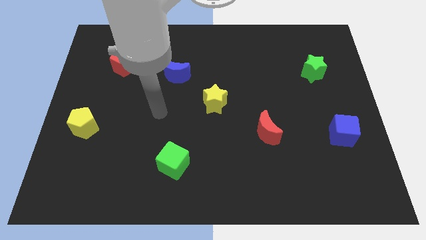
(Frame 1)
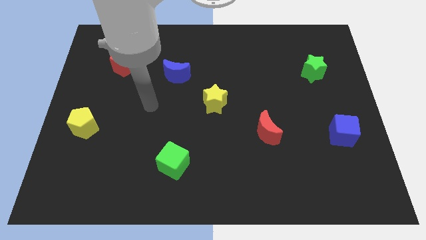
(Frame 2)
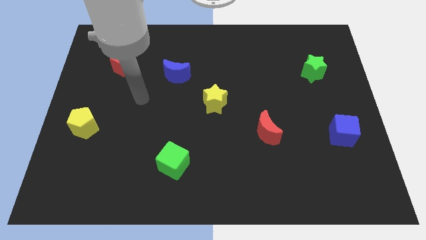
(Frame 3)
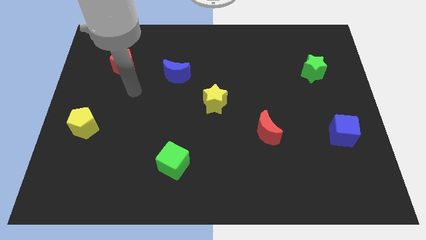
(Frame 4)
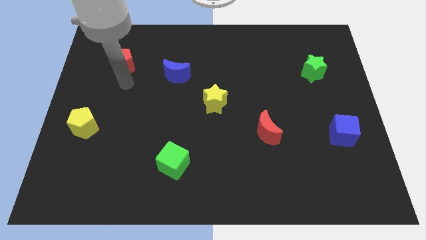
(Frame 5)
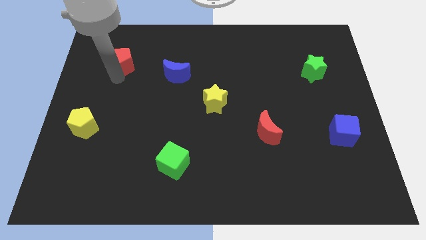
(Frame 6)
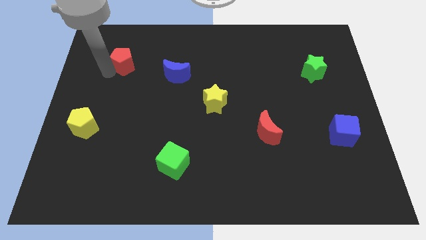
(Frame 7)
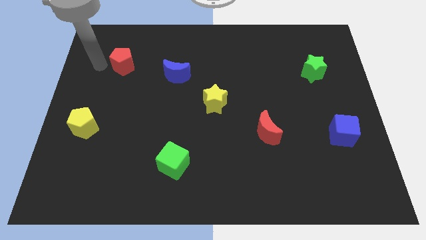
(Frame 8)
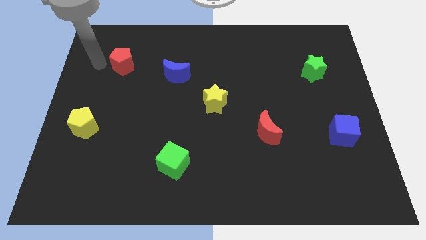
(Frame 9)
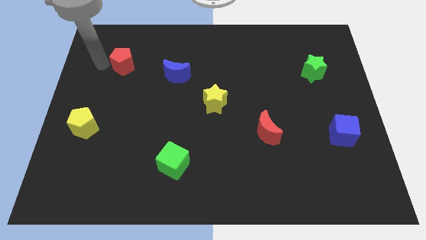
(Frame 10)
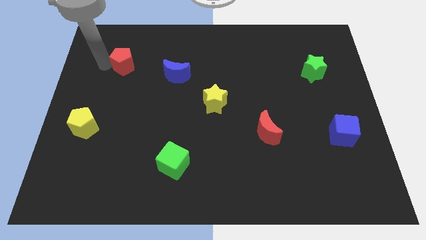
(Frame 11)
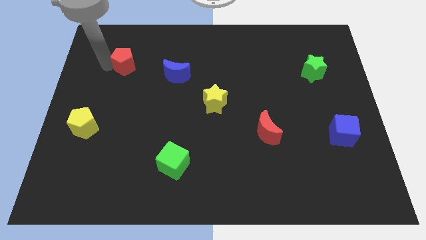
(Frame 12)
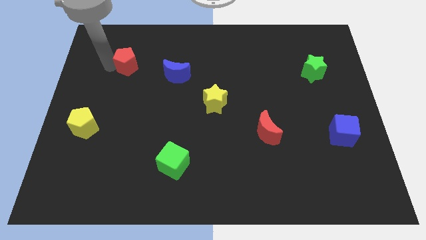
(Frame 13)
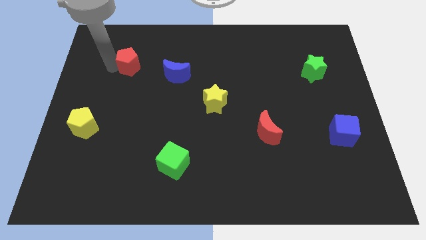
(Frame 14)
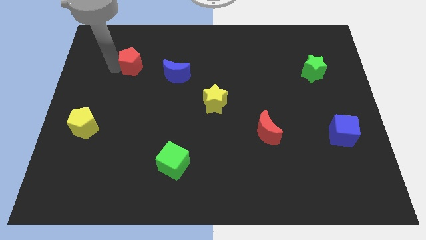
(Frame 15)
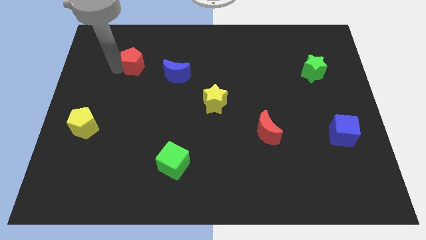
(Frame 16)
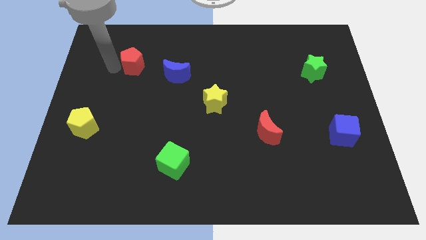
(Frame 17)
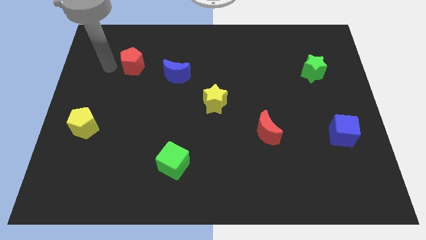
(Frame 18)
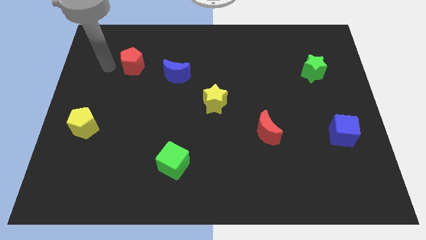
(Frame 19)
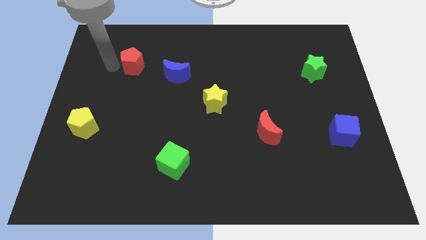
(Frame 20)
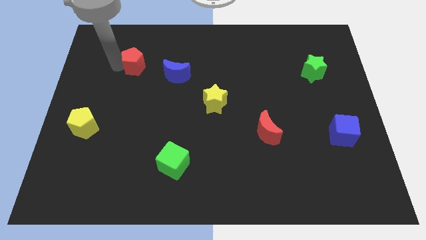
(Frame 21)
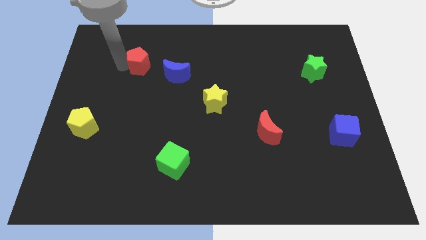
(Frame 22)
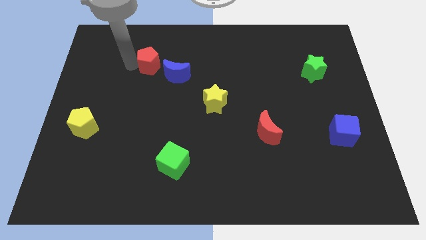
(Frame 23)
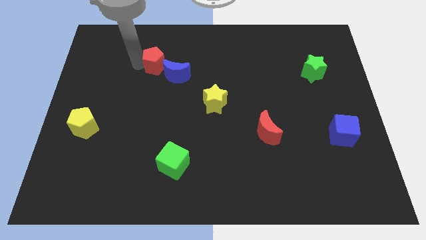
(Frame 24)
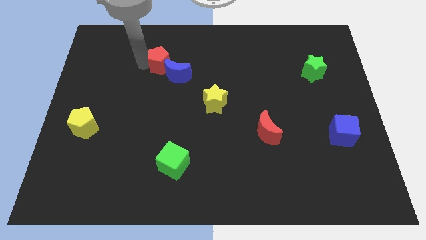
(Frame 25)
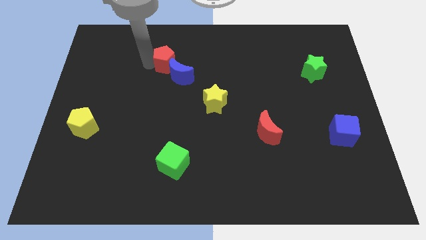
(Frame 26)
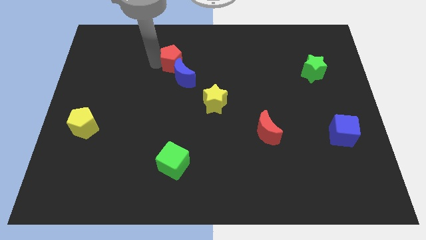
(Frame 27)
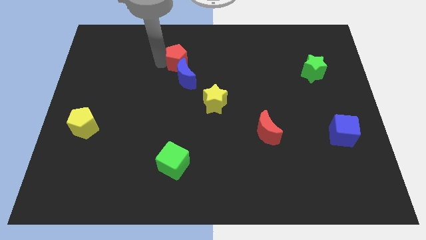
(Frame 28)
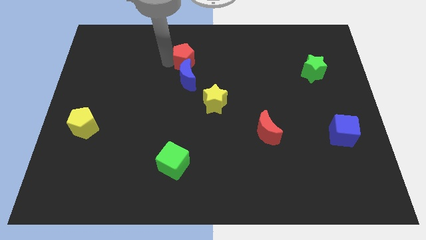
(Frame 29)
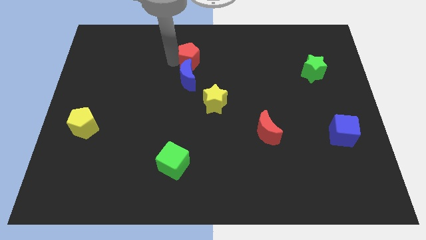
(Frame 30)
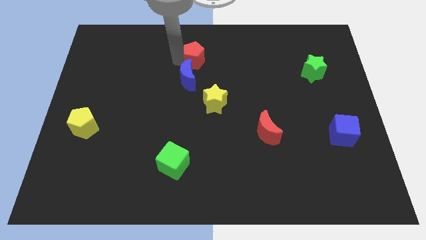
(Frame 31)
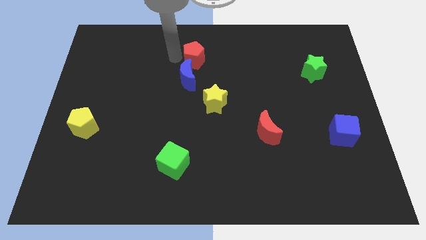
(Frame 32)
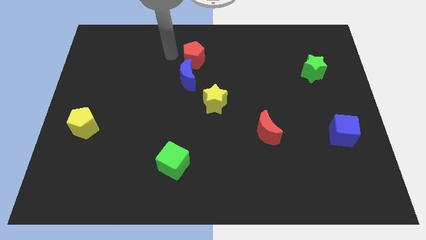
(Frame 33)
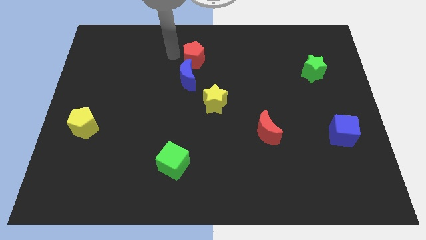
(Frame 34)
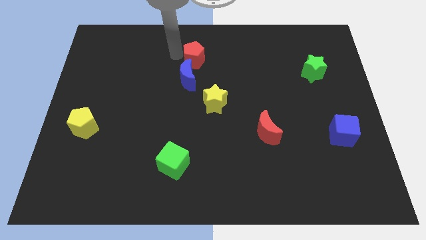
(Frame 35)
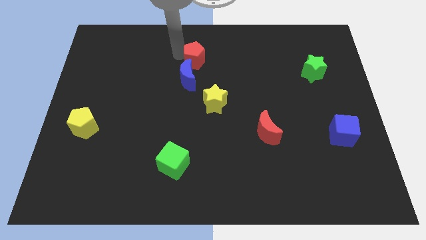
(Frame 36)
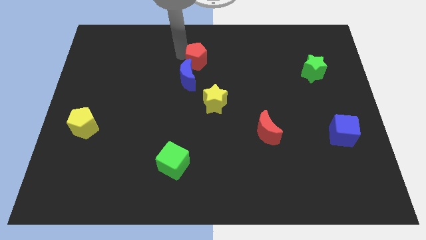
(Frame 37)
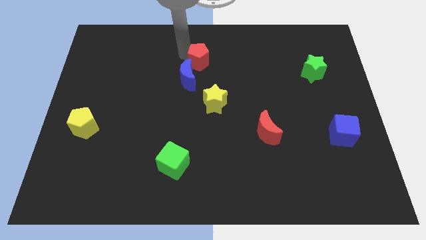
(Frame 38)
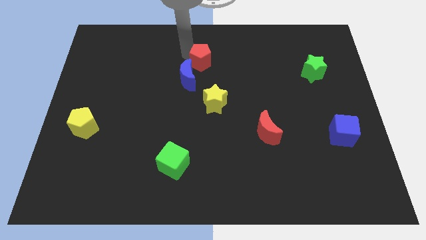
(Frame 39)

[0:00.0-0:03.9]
slide the red pentagon right

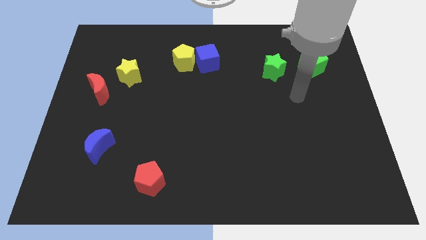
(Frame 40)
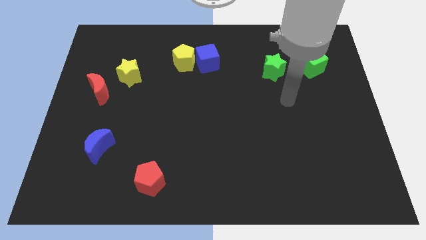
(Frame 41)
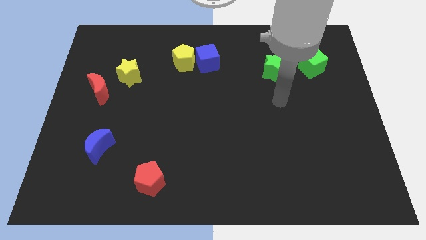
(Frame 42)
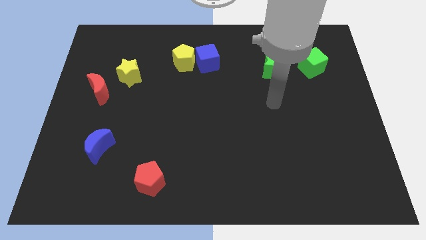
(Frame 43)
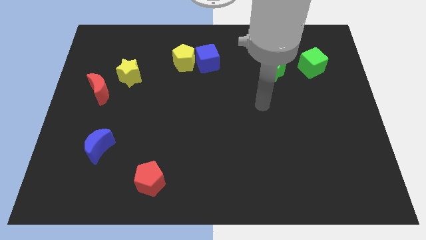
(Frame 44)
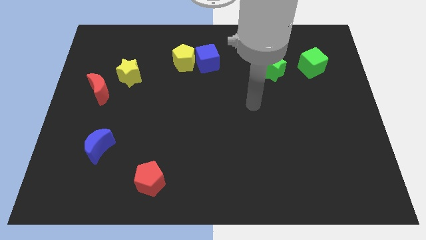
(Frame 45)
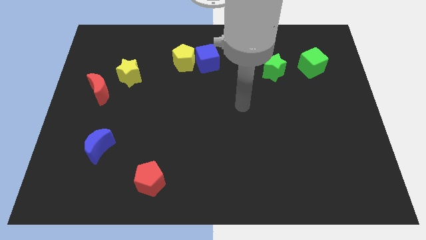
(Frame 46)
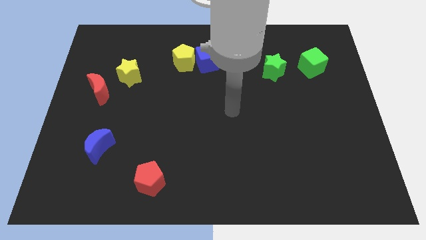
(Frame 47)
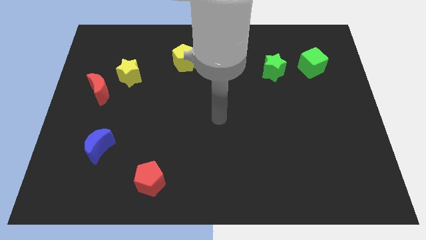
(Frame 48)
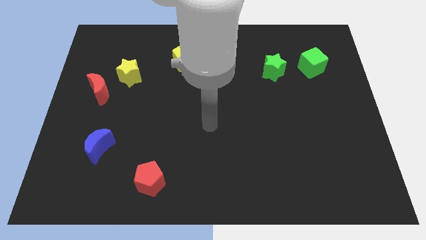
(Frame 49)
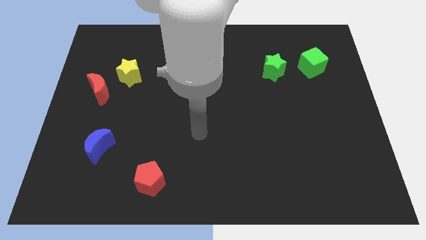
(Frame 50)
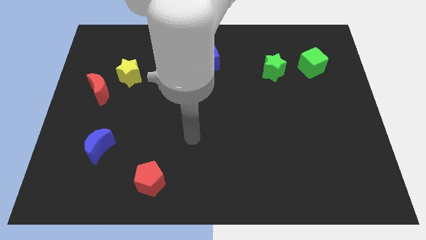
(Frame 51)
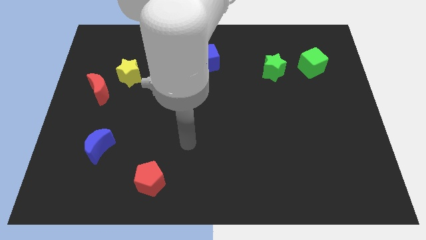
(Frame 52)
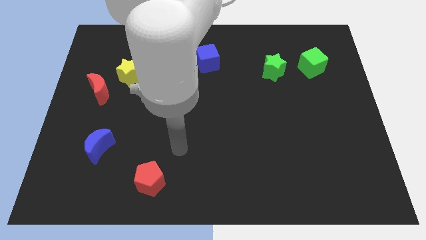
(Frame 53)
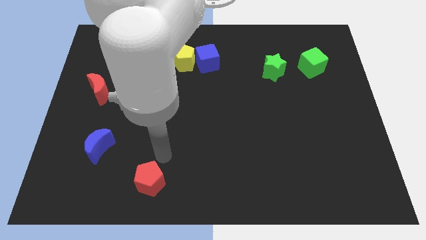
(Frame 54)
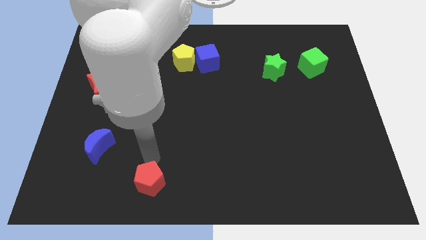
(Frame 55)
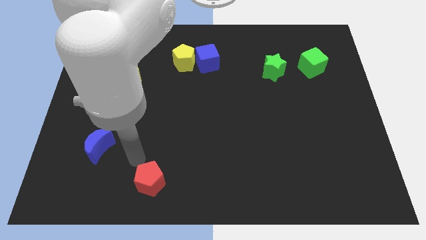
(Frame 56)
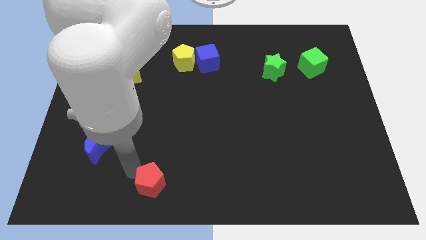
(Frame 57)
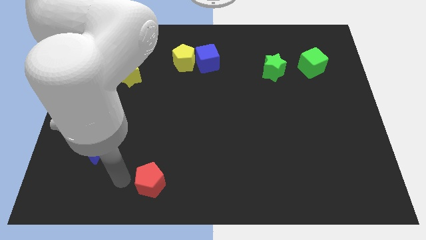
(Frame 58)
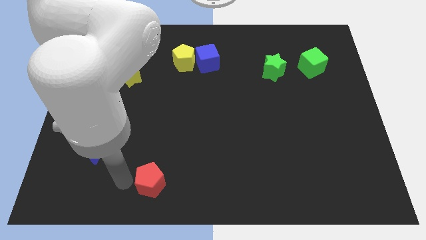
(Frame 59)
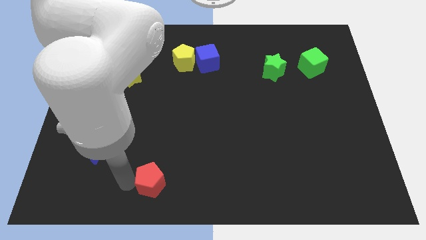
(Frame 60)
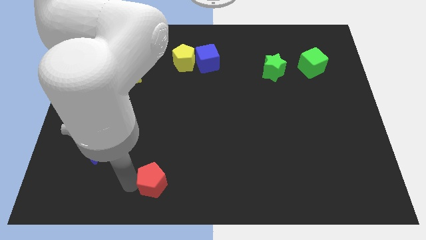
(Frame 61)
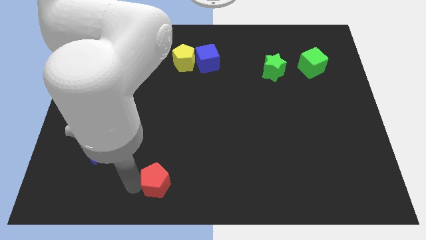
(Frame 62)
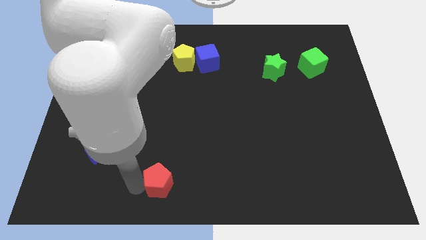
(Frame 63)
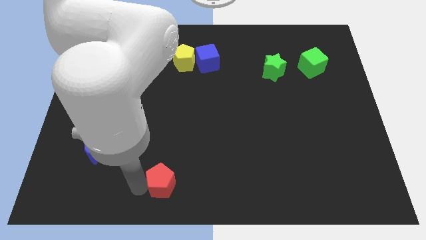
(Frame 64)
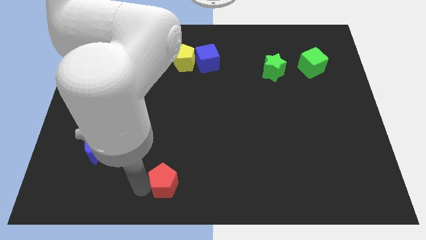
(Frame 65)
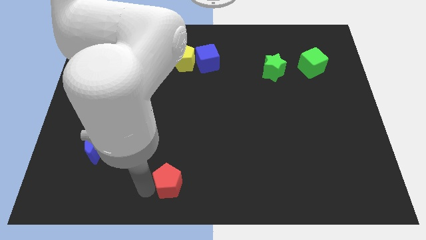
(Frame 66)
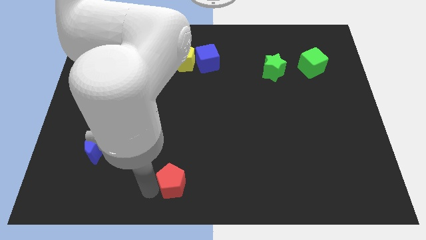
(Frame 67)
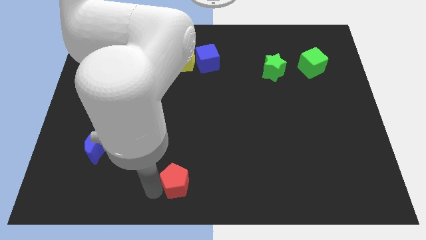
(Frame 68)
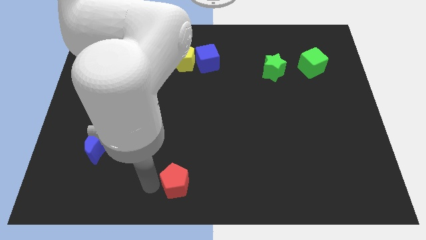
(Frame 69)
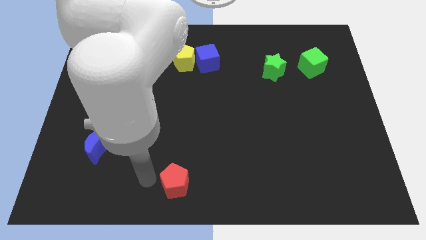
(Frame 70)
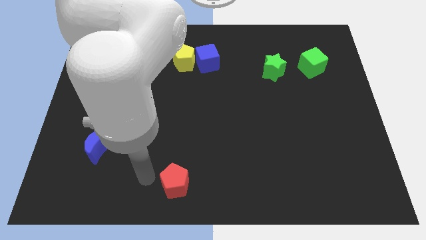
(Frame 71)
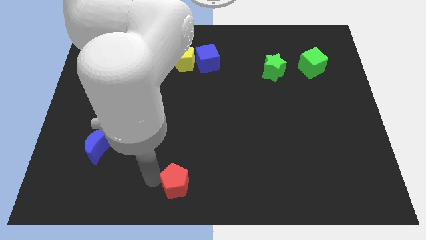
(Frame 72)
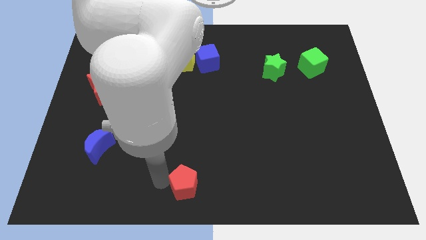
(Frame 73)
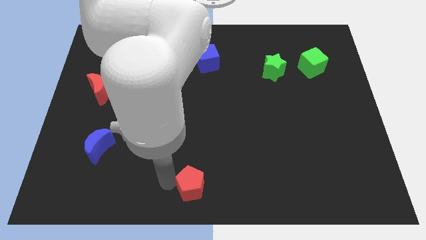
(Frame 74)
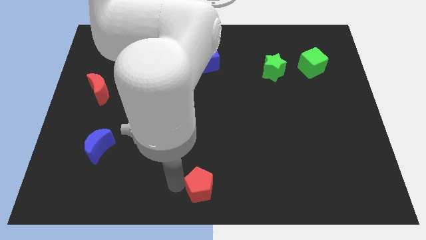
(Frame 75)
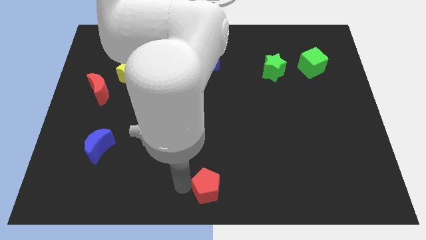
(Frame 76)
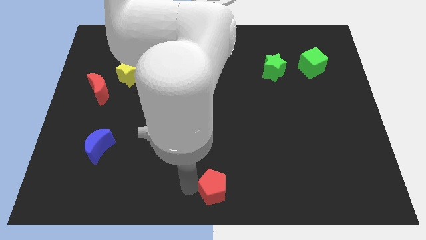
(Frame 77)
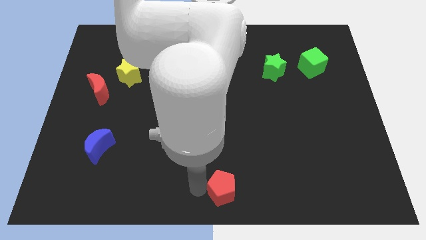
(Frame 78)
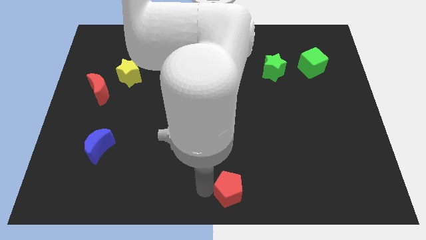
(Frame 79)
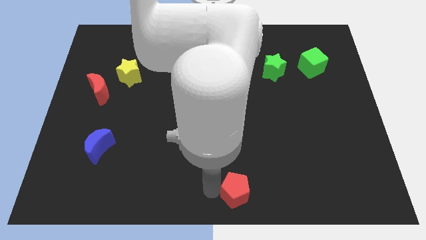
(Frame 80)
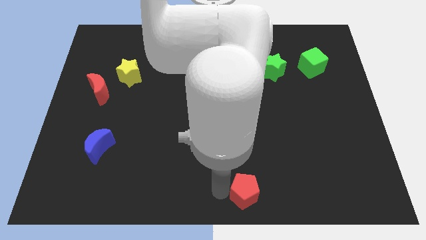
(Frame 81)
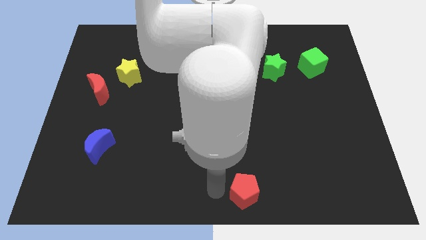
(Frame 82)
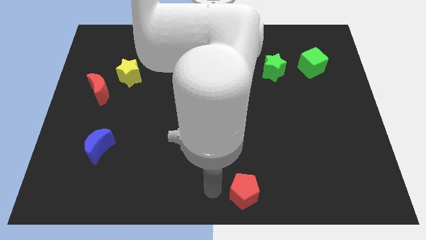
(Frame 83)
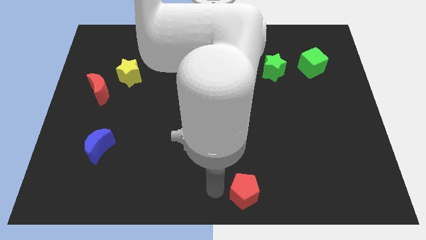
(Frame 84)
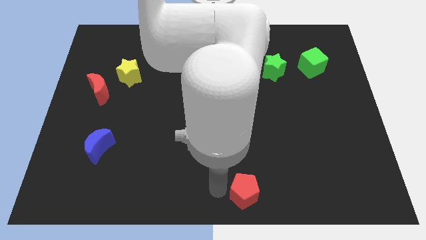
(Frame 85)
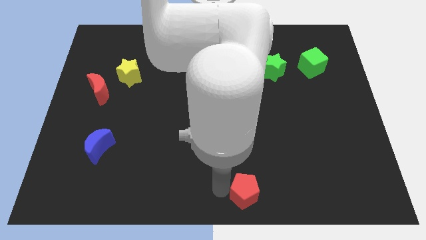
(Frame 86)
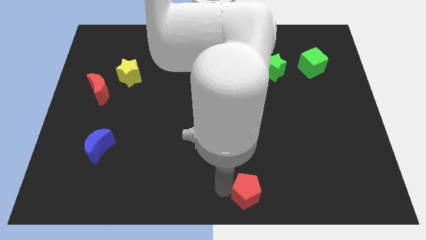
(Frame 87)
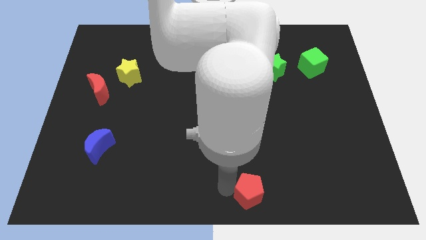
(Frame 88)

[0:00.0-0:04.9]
push the red pentagon right
